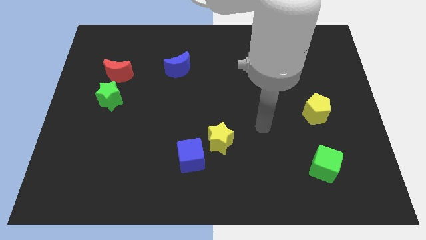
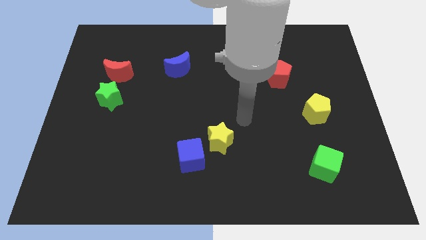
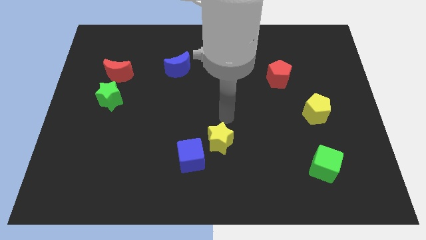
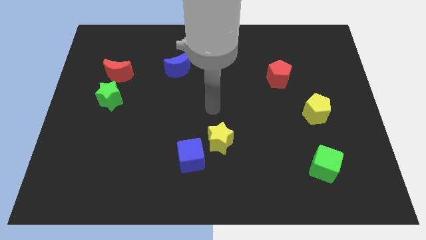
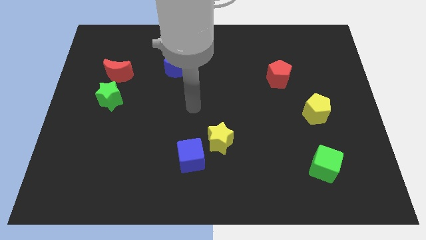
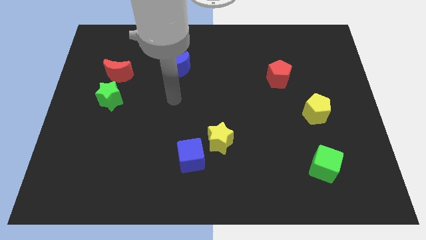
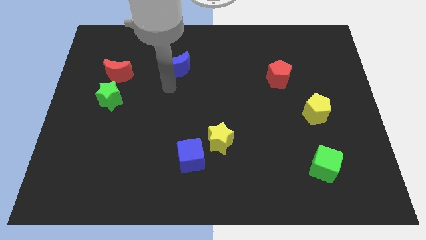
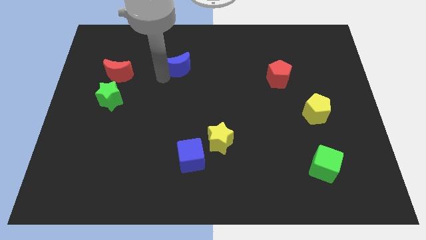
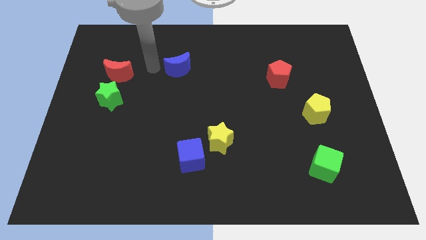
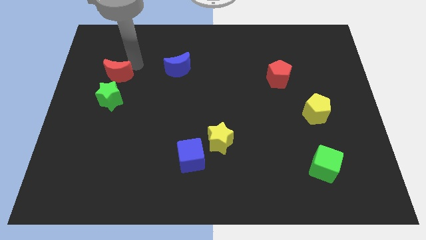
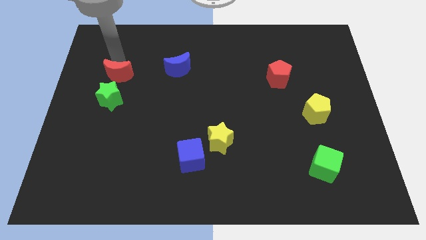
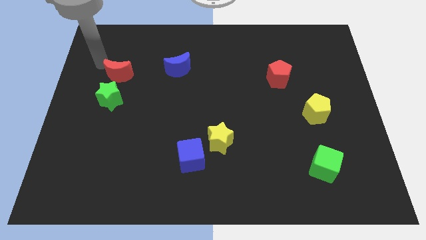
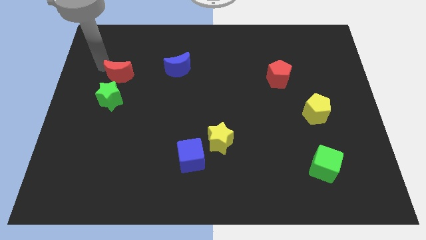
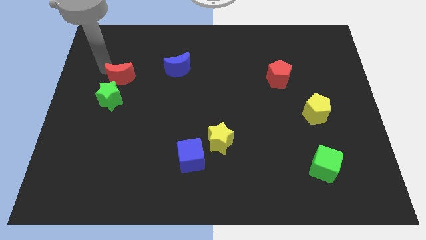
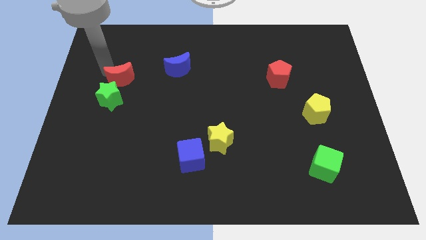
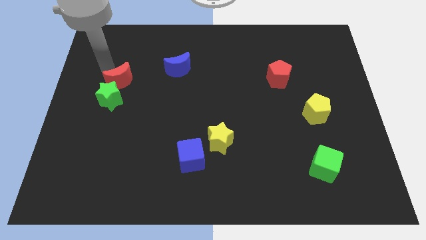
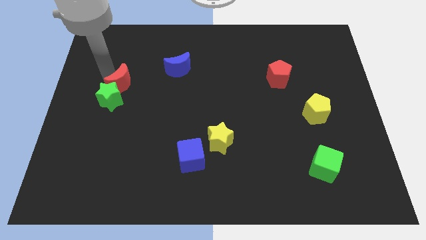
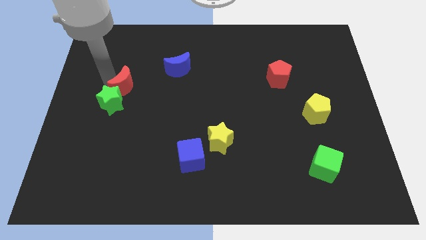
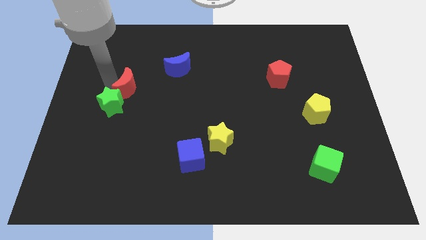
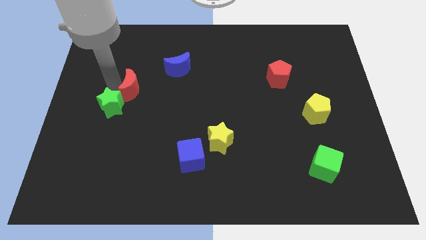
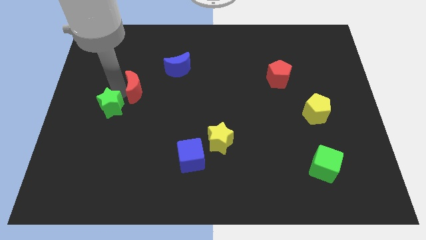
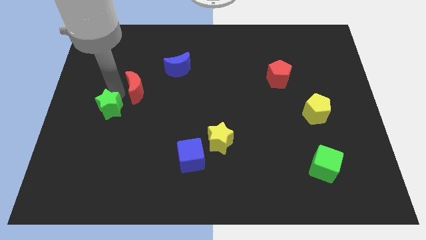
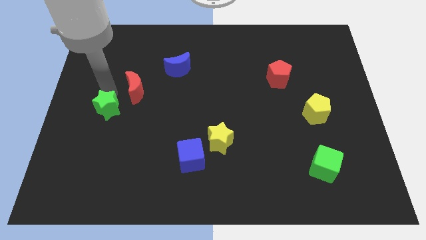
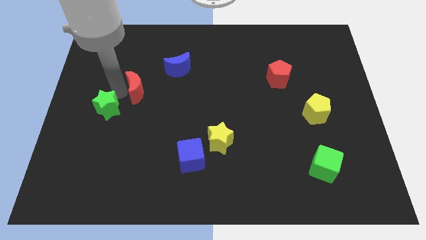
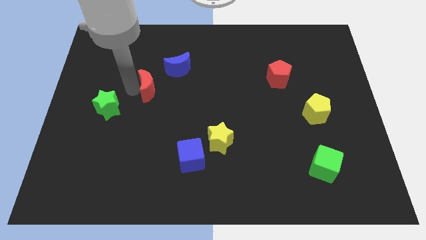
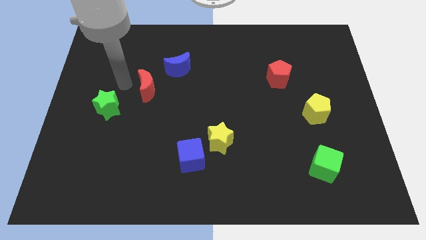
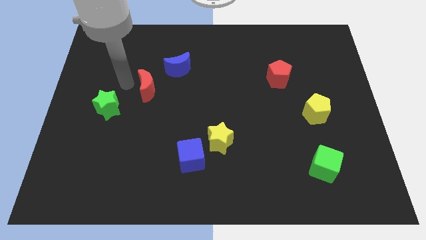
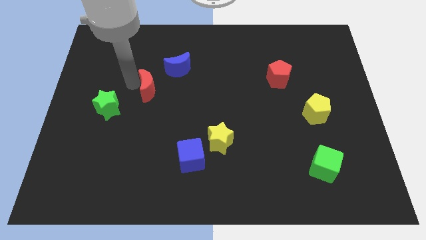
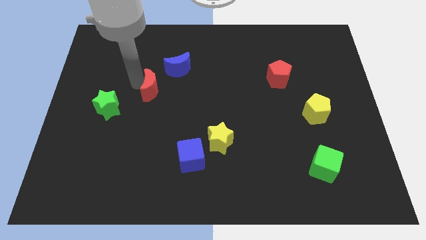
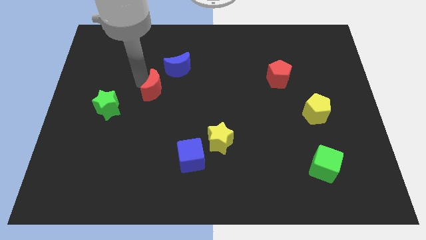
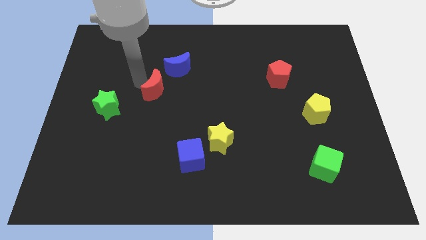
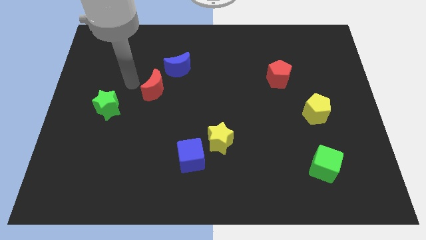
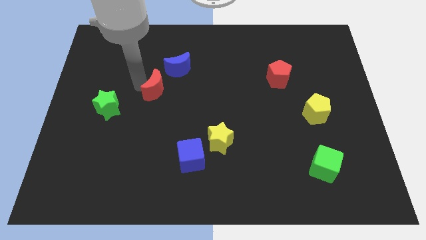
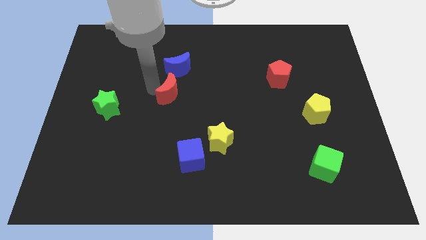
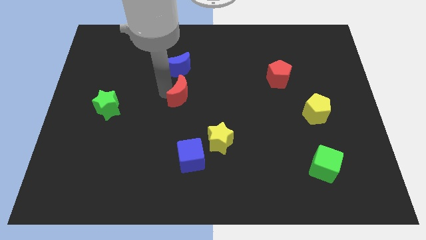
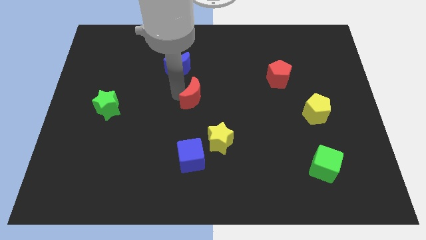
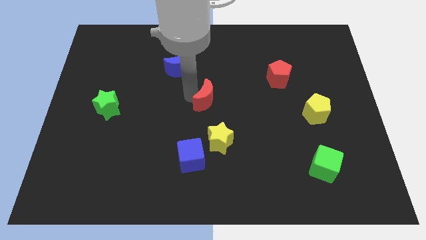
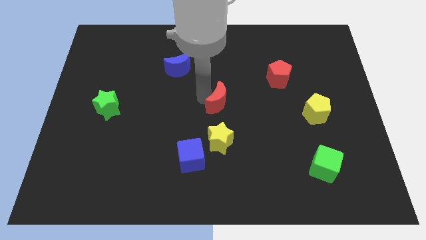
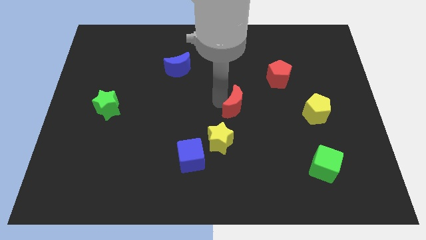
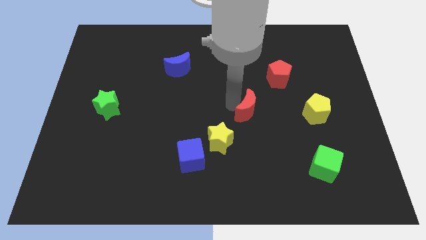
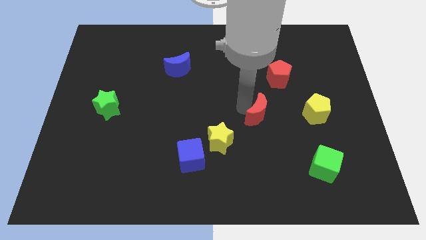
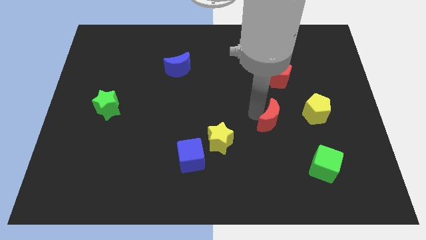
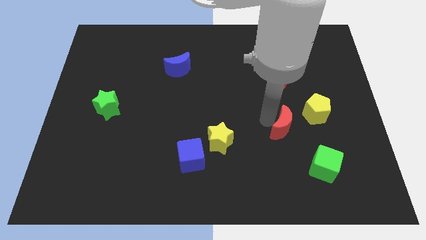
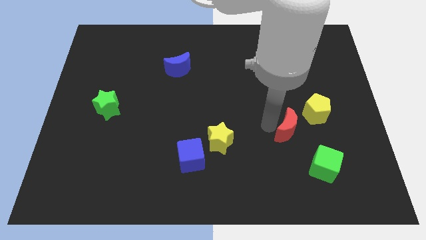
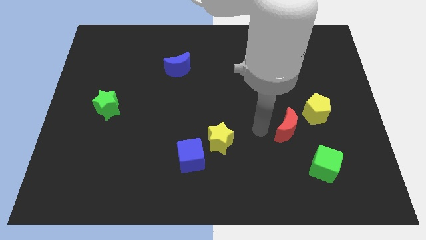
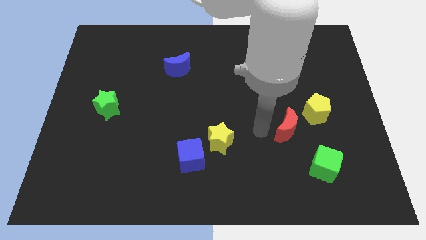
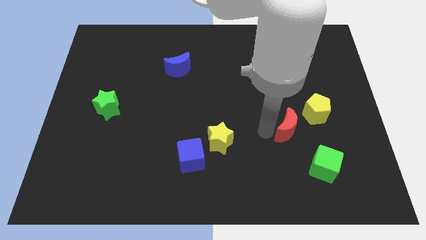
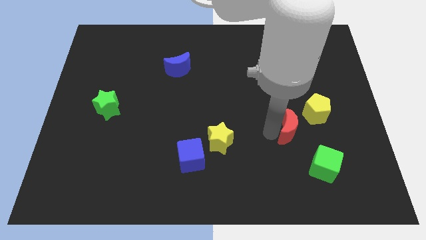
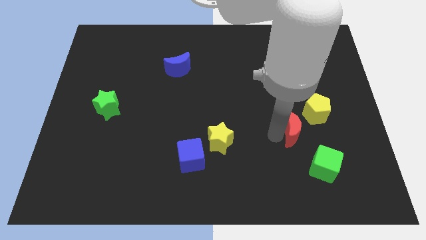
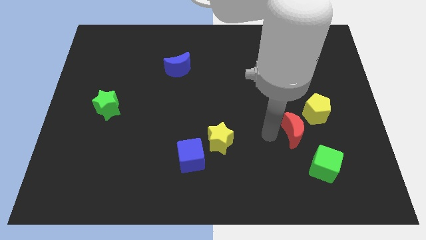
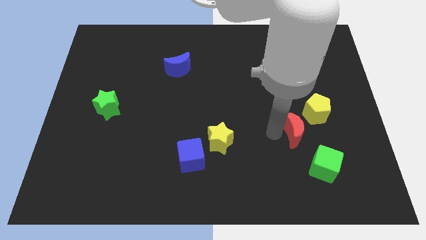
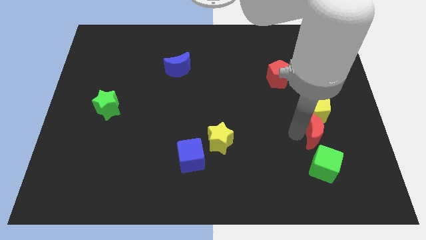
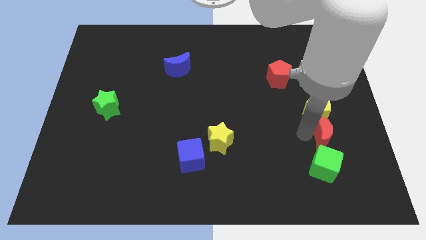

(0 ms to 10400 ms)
push the red moon diagonally down and to the right of the yellow pentagon

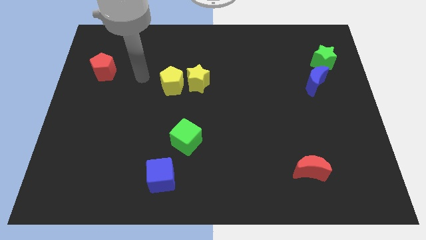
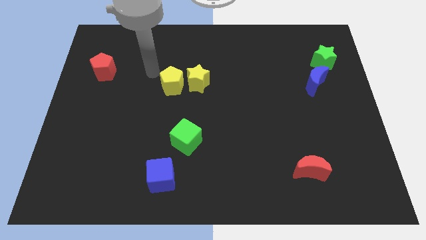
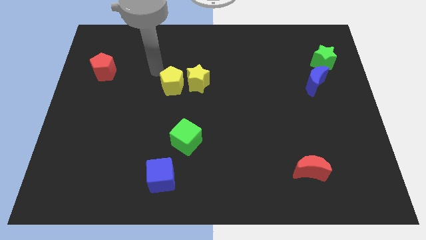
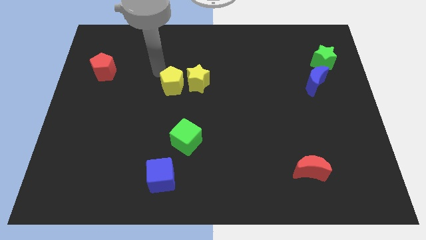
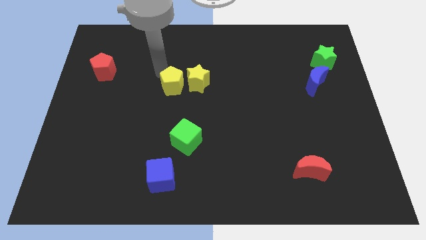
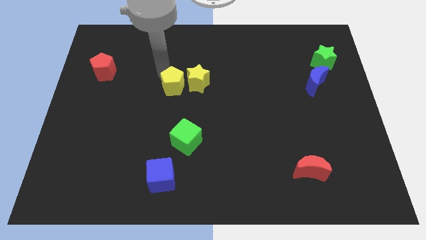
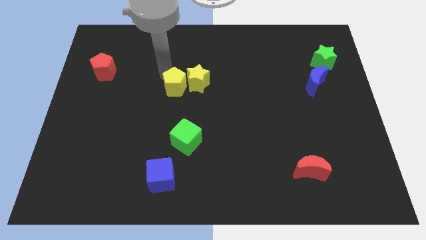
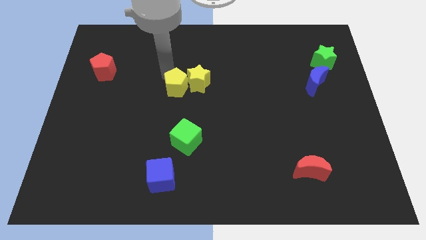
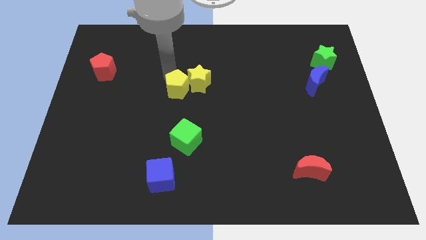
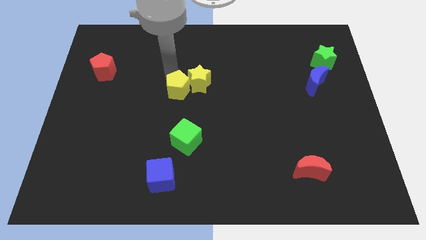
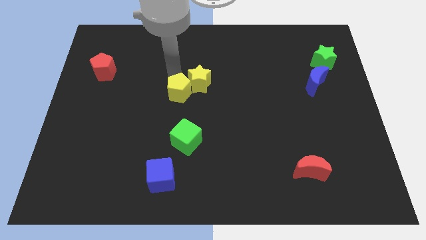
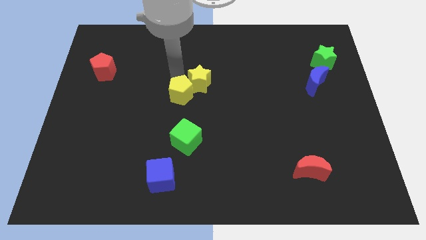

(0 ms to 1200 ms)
put the yellow pentagon below the yellow star

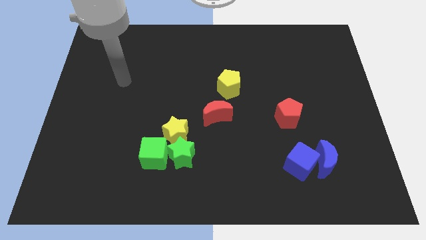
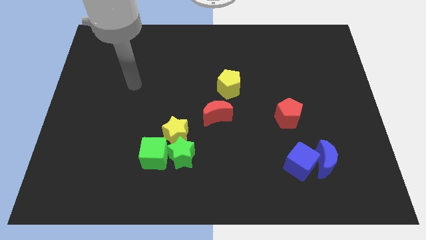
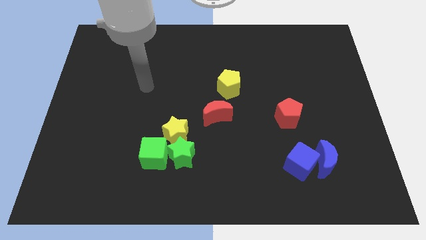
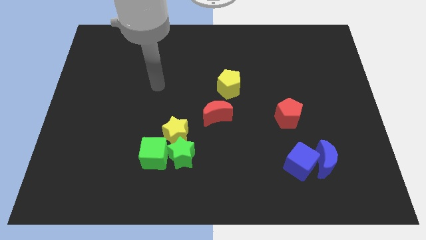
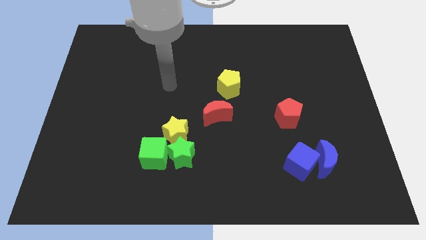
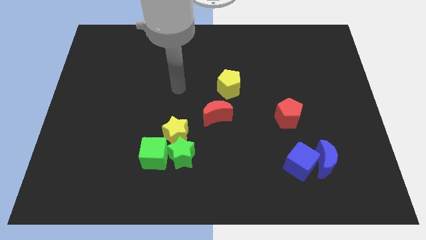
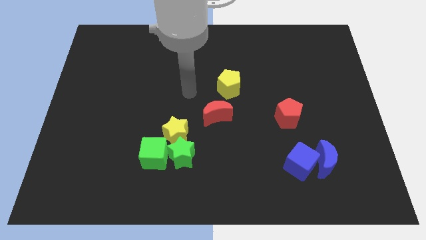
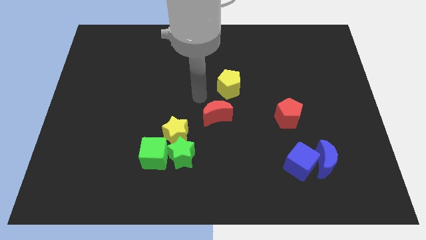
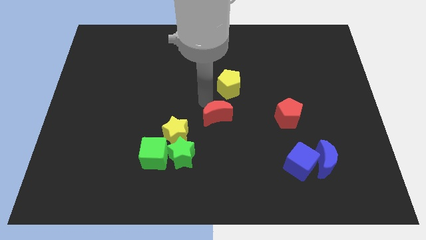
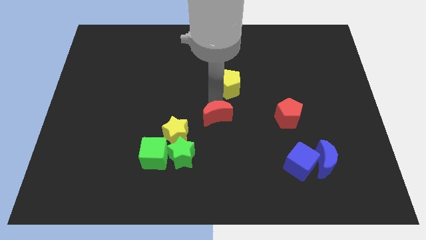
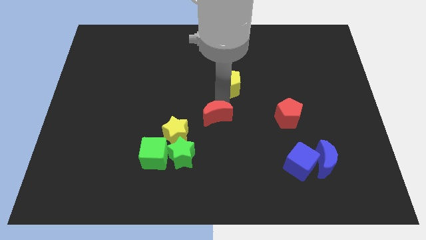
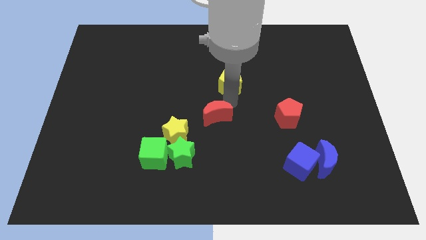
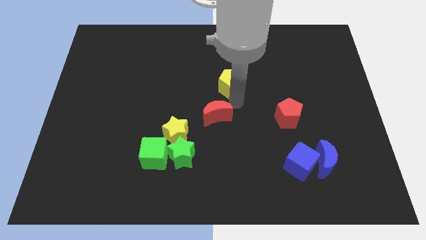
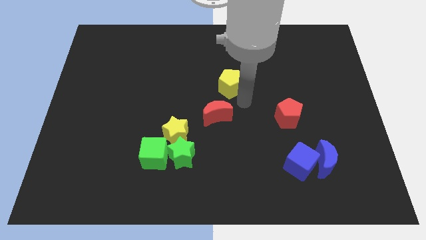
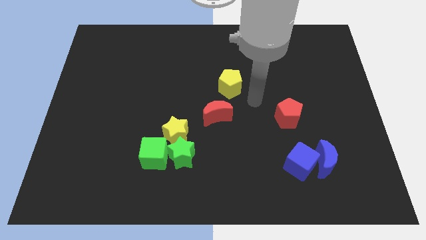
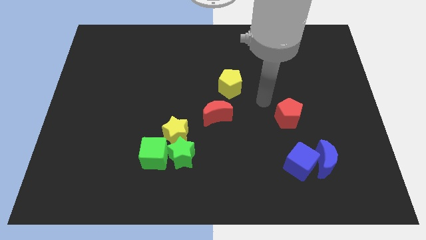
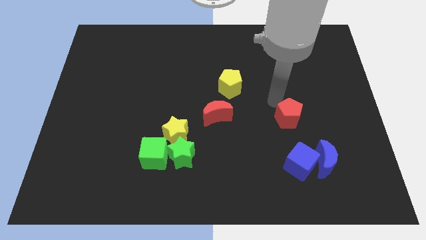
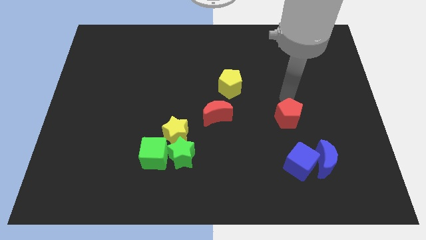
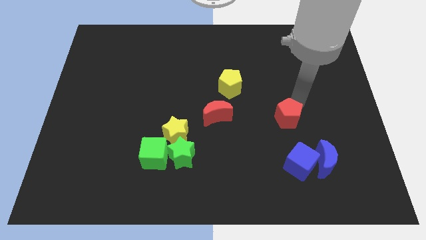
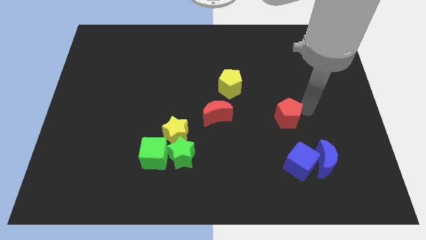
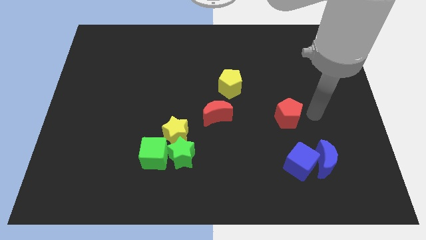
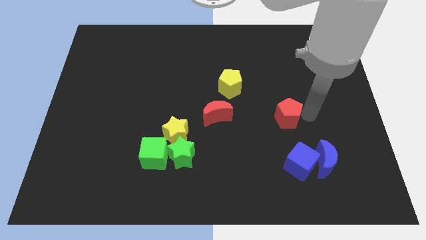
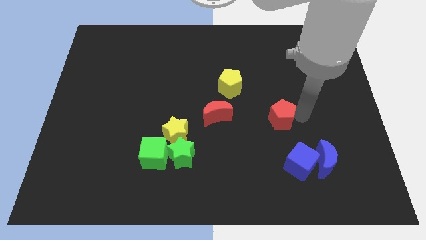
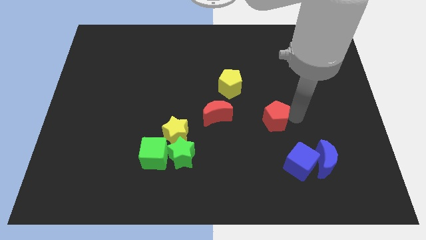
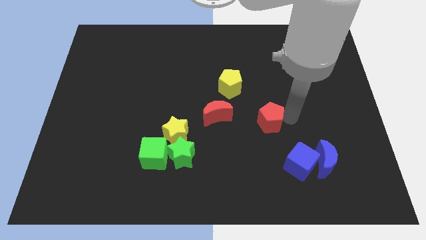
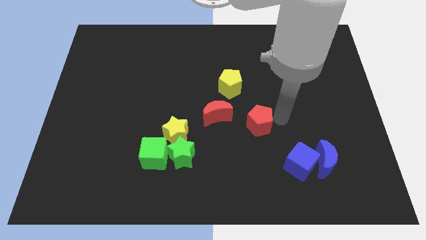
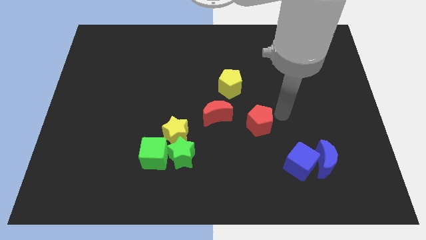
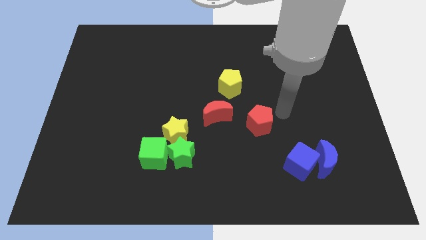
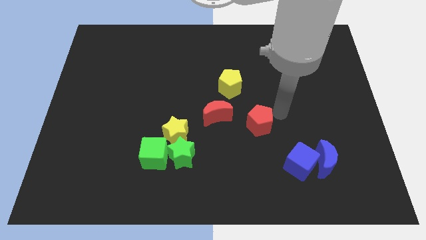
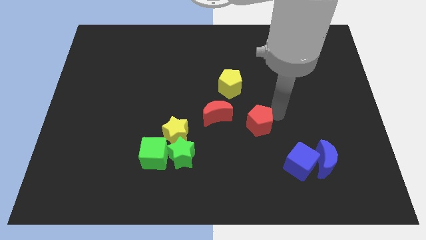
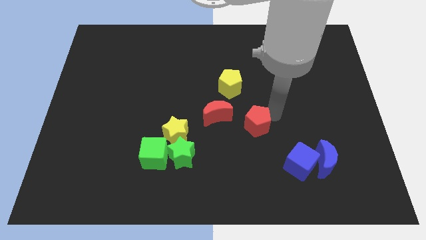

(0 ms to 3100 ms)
put the red pentagon to the bottom right side of the red moon
